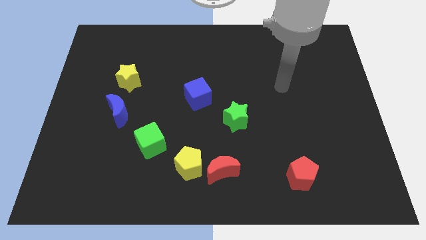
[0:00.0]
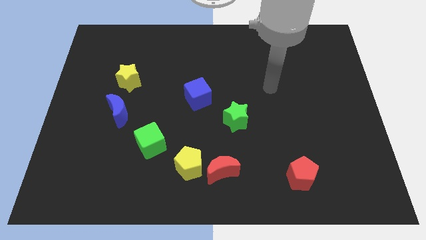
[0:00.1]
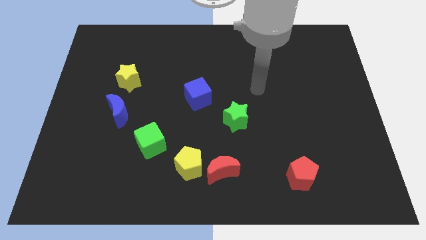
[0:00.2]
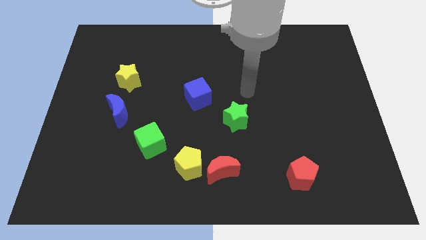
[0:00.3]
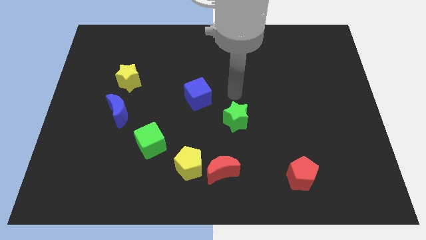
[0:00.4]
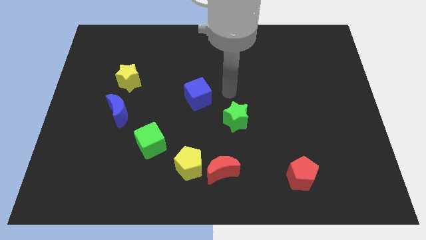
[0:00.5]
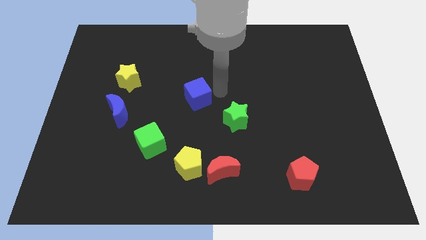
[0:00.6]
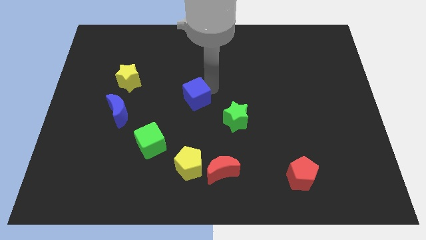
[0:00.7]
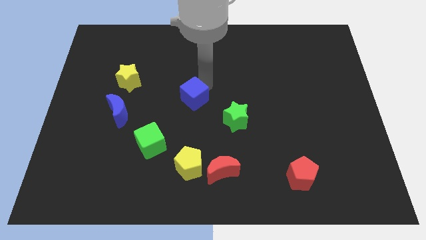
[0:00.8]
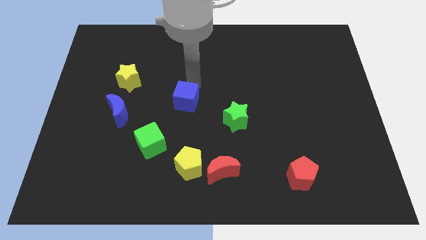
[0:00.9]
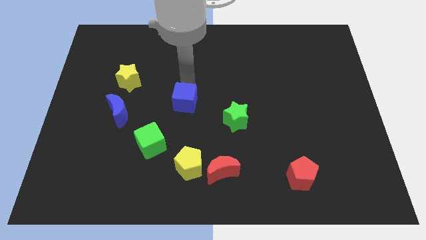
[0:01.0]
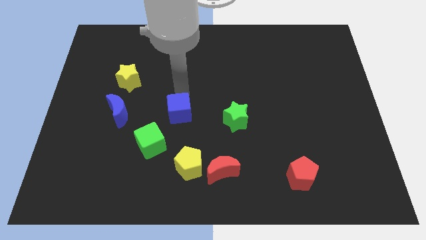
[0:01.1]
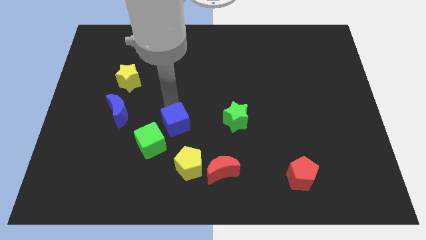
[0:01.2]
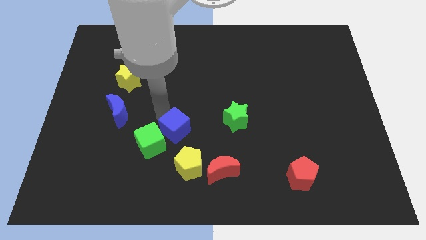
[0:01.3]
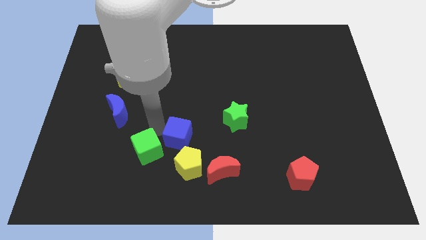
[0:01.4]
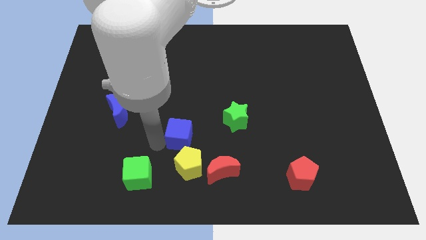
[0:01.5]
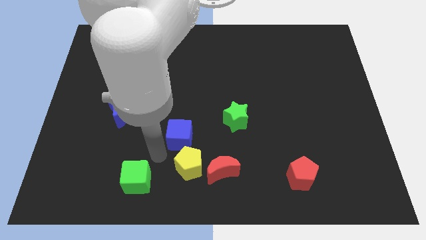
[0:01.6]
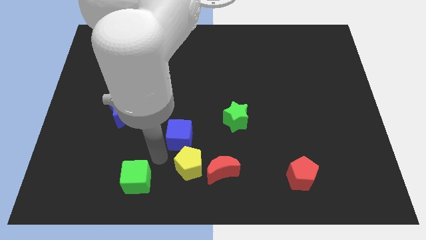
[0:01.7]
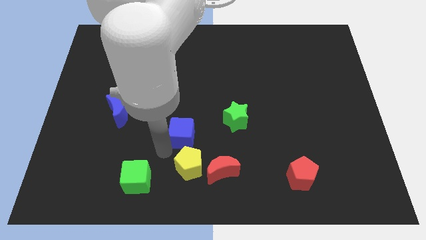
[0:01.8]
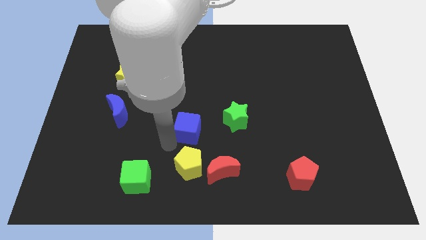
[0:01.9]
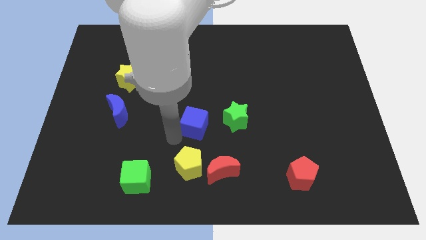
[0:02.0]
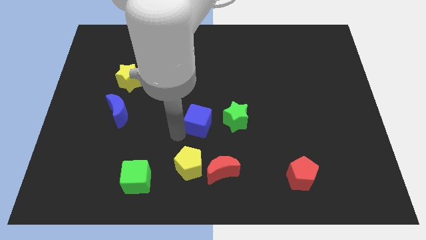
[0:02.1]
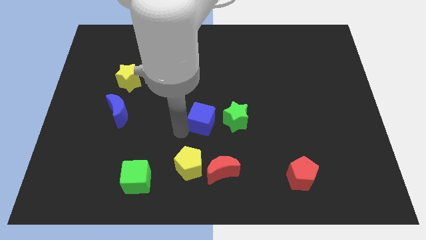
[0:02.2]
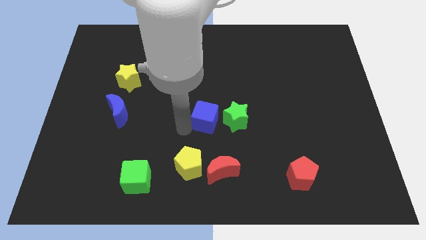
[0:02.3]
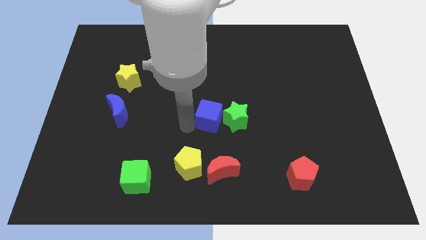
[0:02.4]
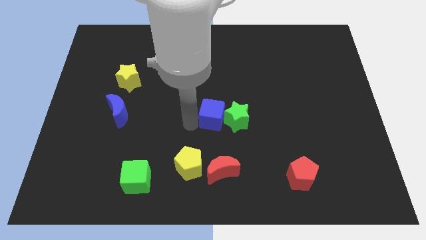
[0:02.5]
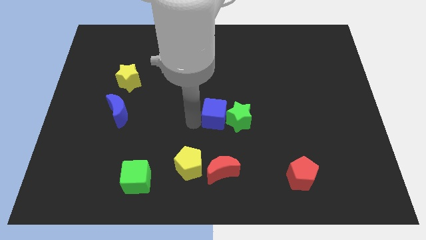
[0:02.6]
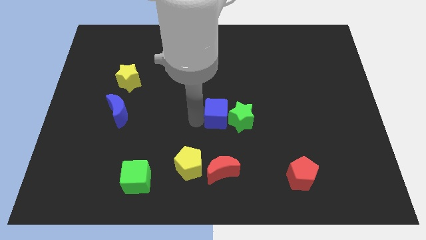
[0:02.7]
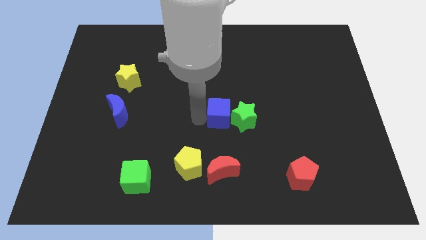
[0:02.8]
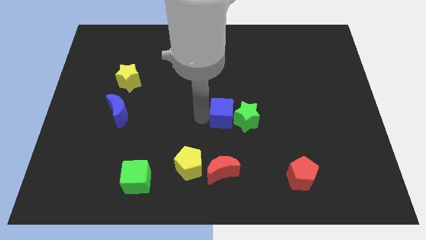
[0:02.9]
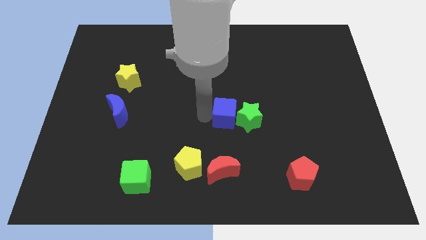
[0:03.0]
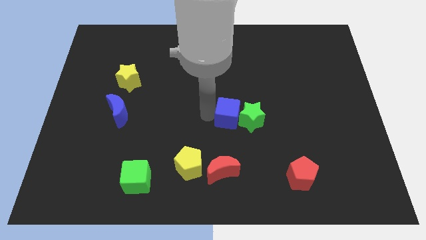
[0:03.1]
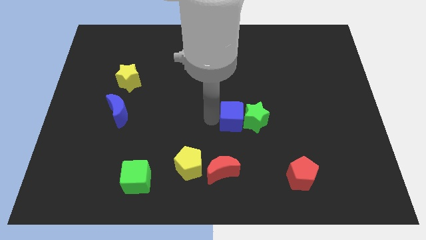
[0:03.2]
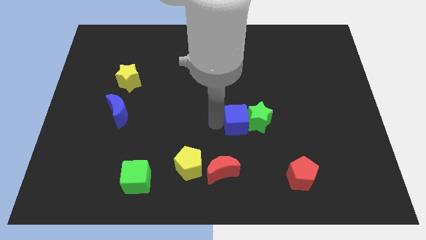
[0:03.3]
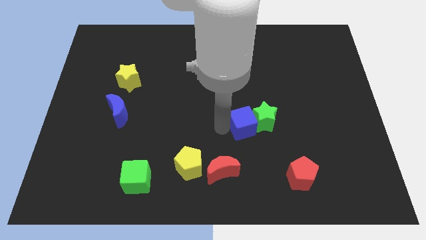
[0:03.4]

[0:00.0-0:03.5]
slide the blue cube to the right a bit

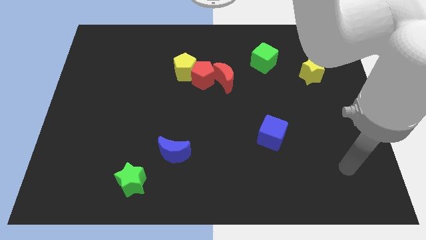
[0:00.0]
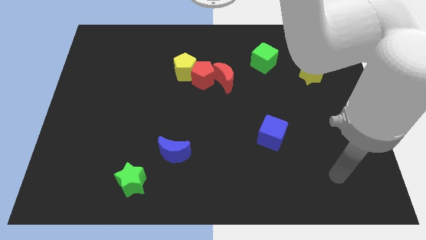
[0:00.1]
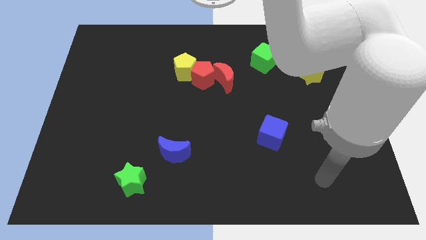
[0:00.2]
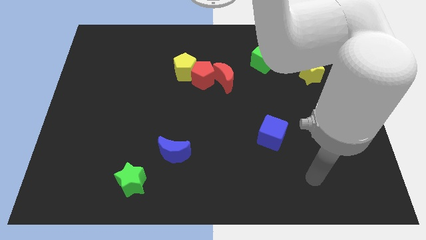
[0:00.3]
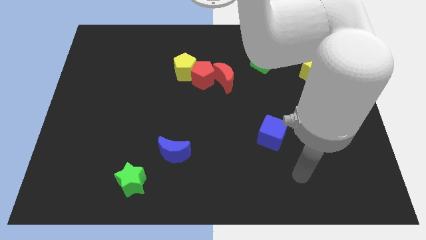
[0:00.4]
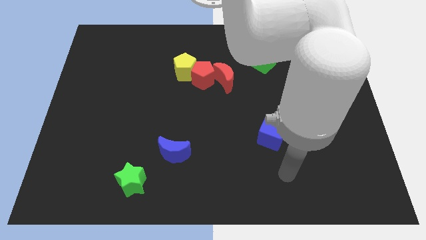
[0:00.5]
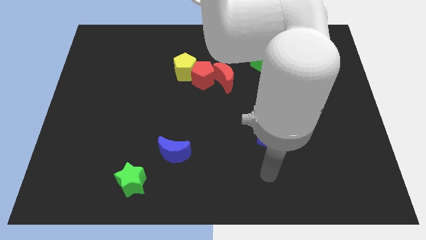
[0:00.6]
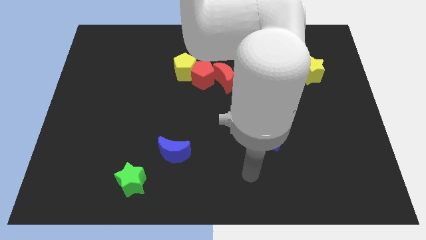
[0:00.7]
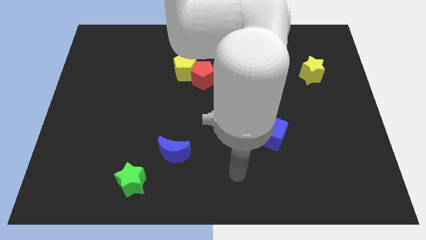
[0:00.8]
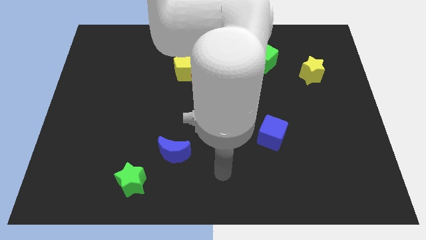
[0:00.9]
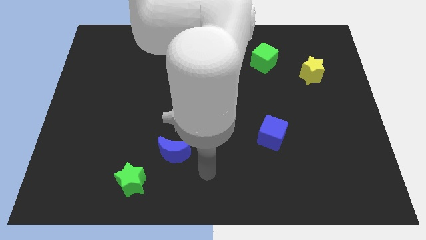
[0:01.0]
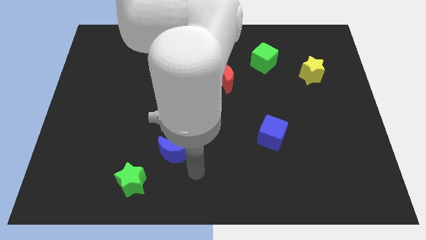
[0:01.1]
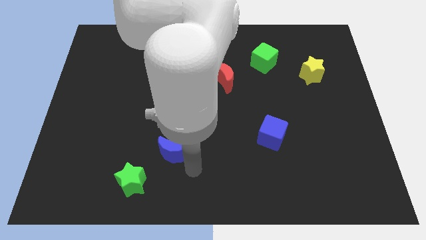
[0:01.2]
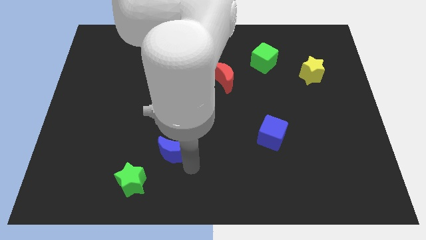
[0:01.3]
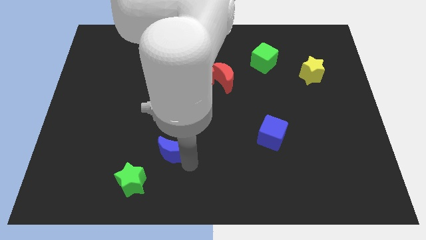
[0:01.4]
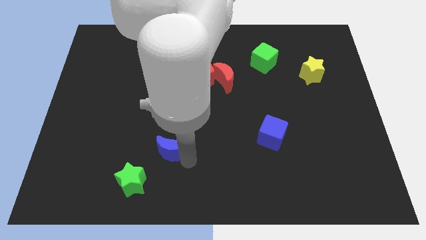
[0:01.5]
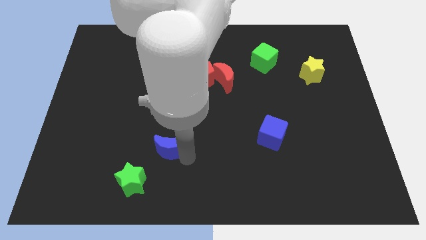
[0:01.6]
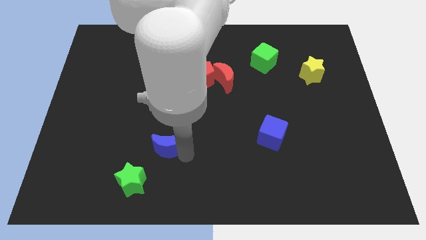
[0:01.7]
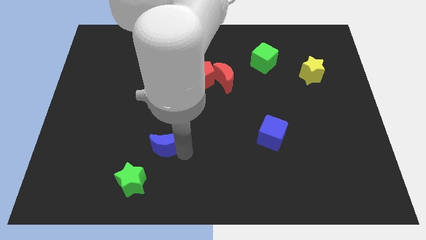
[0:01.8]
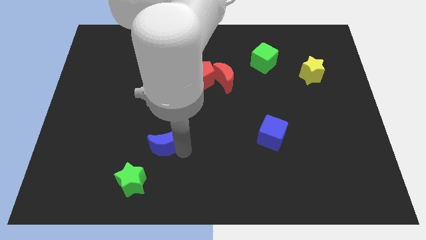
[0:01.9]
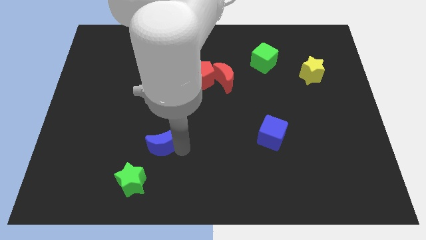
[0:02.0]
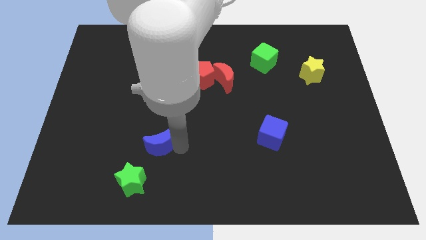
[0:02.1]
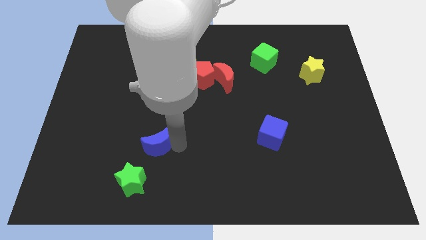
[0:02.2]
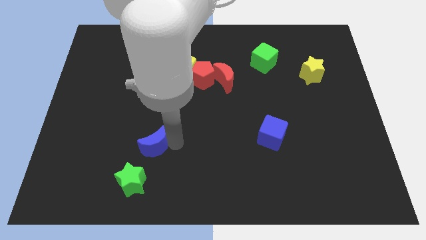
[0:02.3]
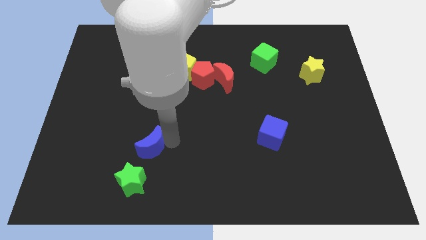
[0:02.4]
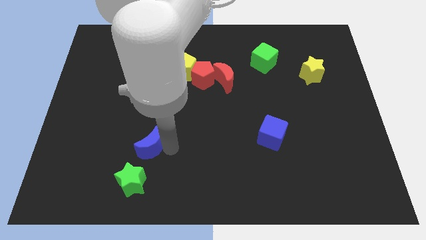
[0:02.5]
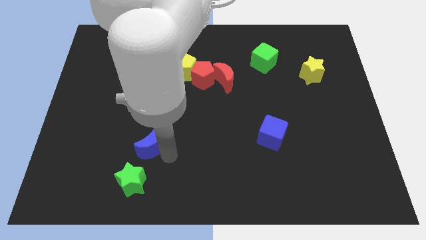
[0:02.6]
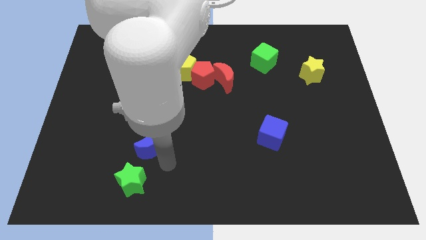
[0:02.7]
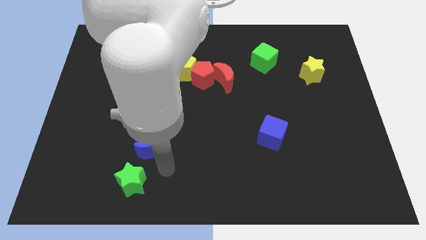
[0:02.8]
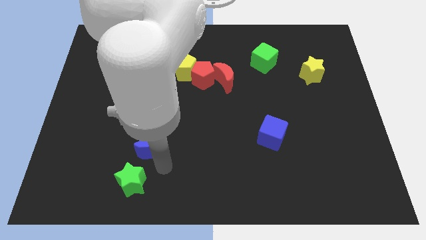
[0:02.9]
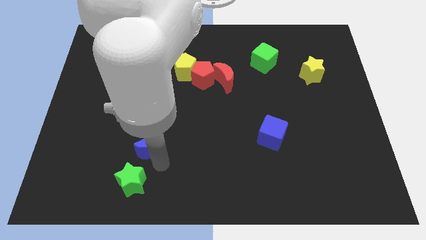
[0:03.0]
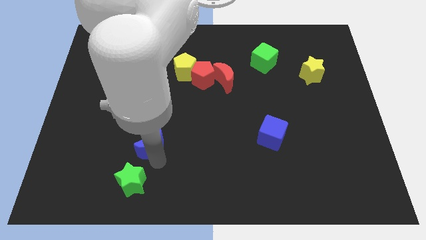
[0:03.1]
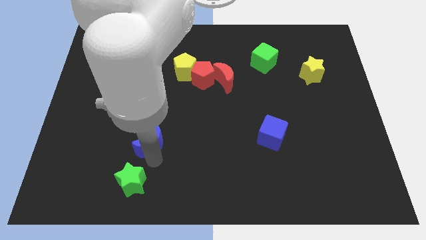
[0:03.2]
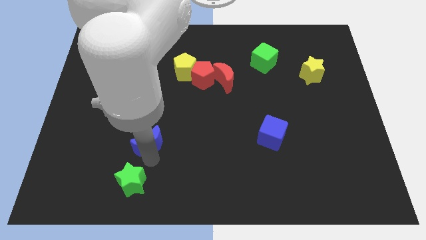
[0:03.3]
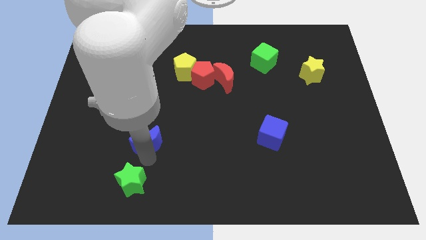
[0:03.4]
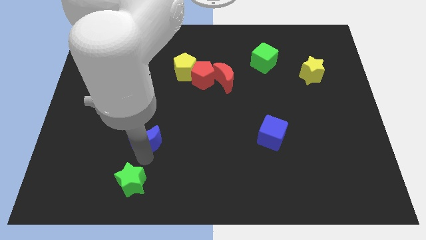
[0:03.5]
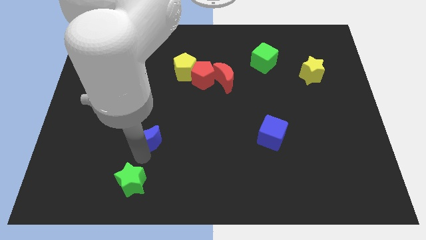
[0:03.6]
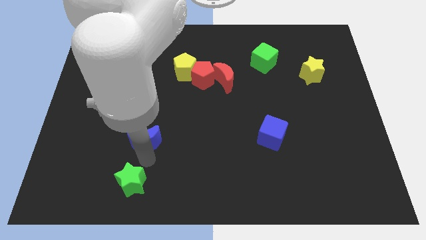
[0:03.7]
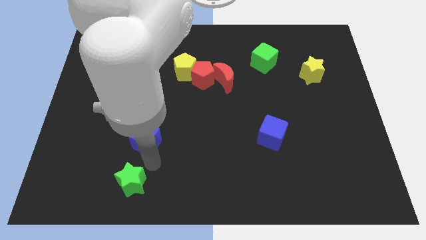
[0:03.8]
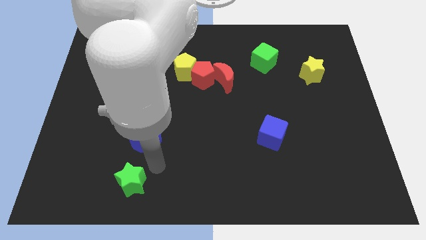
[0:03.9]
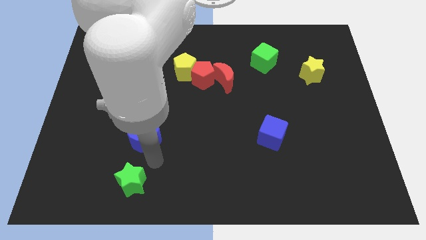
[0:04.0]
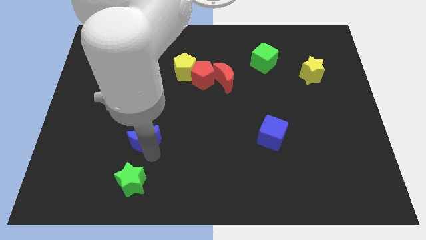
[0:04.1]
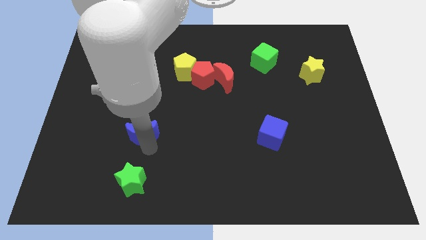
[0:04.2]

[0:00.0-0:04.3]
push the blue moon a little bit up and then left

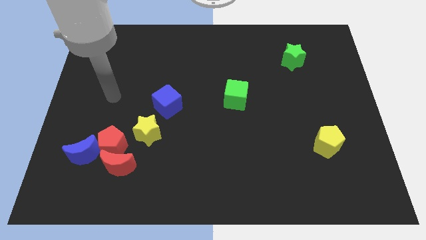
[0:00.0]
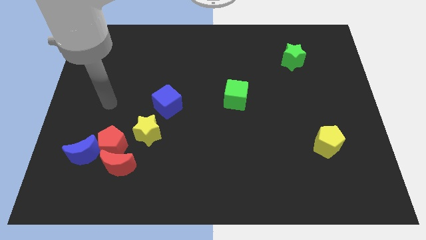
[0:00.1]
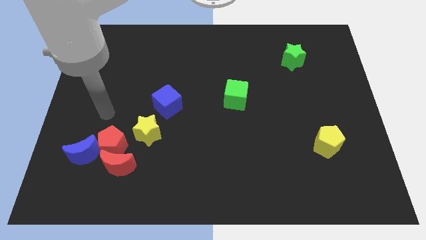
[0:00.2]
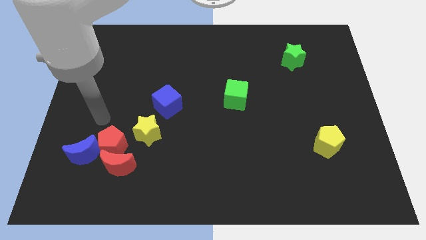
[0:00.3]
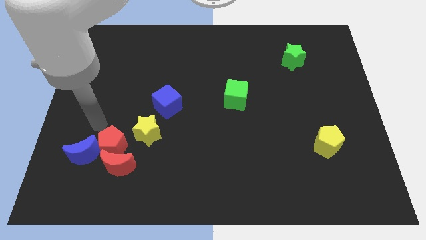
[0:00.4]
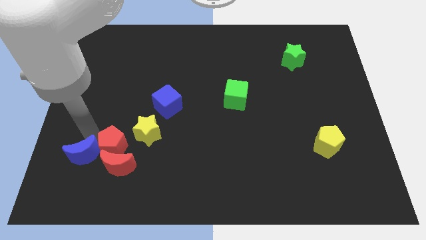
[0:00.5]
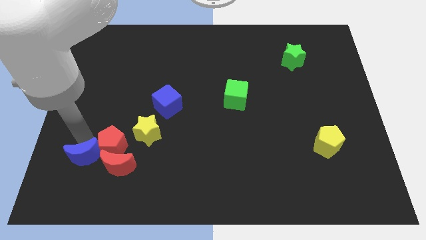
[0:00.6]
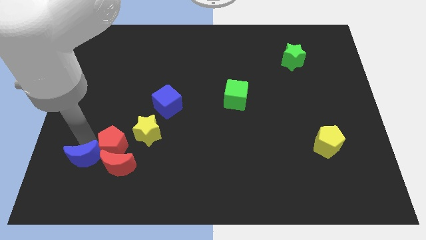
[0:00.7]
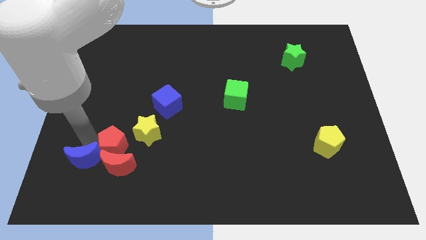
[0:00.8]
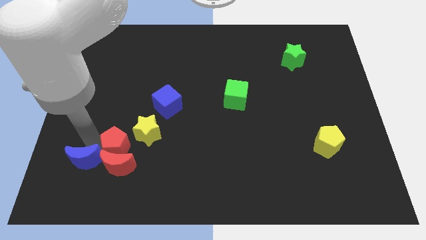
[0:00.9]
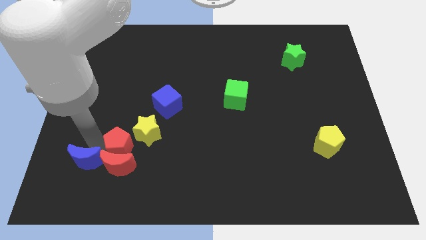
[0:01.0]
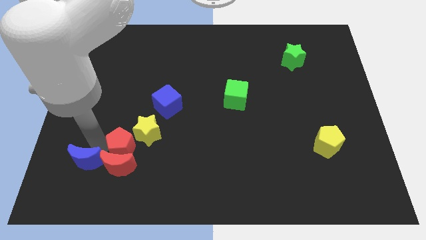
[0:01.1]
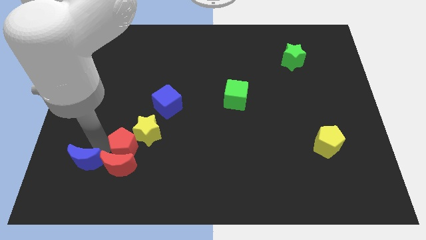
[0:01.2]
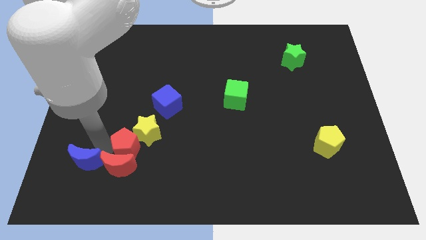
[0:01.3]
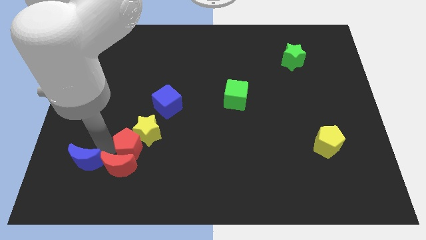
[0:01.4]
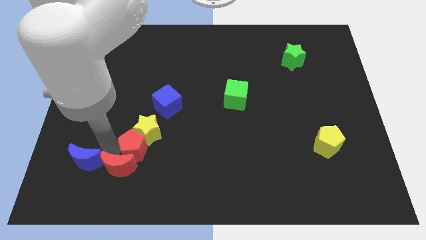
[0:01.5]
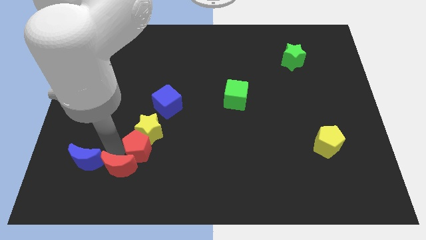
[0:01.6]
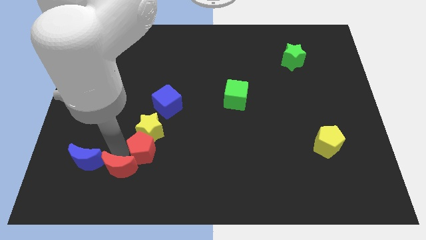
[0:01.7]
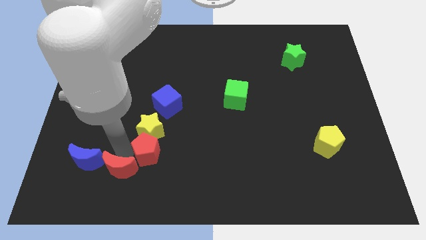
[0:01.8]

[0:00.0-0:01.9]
slightly slide the red pentagon right
